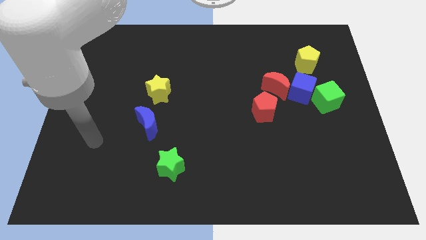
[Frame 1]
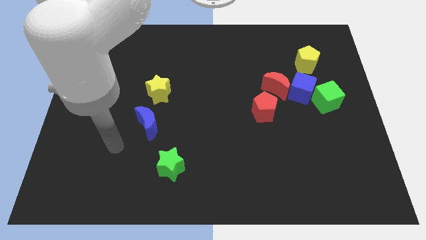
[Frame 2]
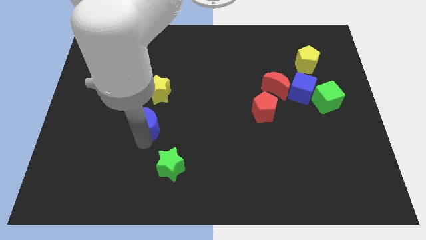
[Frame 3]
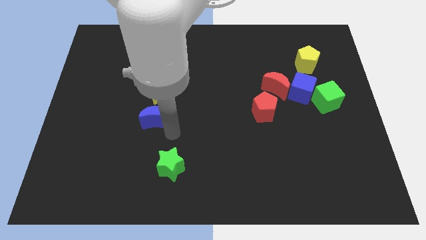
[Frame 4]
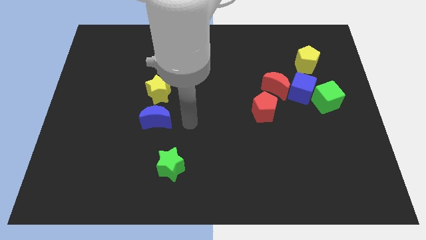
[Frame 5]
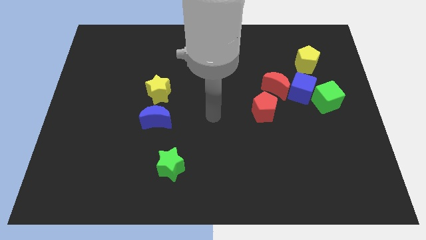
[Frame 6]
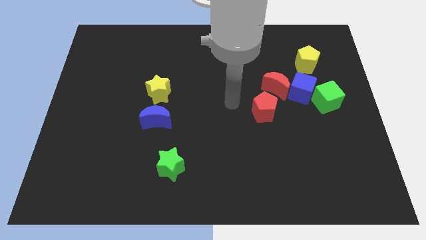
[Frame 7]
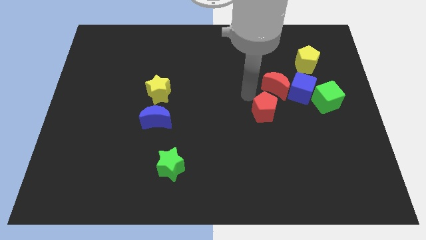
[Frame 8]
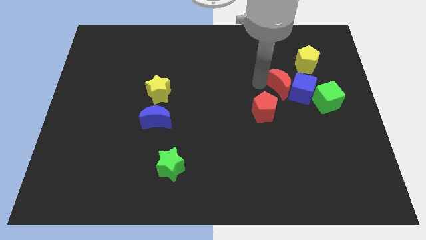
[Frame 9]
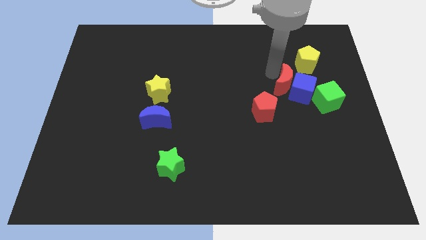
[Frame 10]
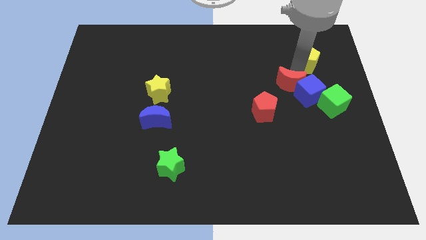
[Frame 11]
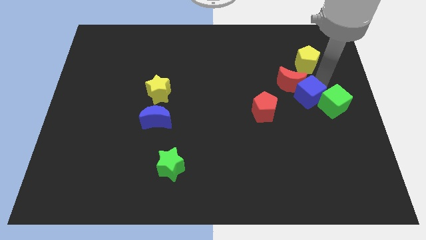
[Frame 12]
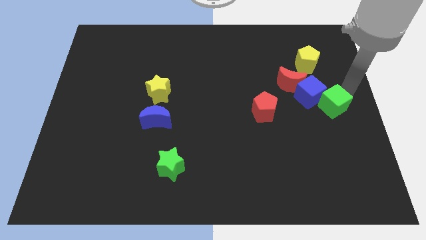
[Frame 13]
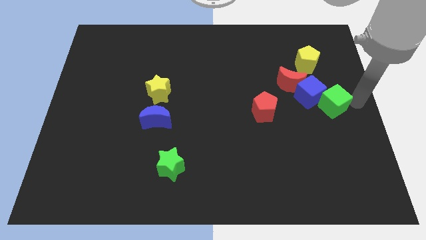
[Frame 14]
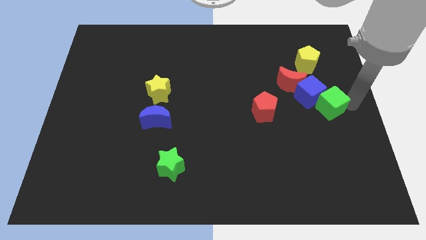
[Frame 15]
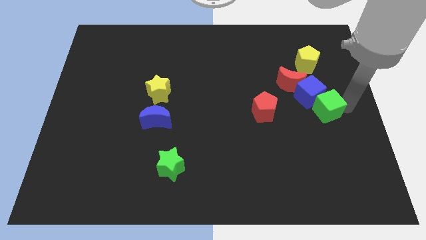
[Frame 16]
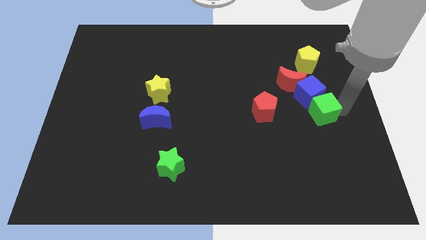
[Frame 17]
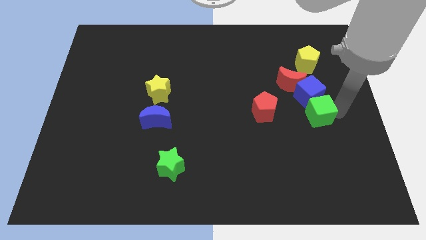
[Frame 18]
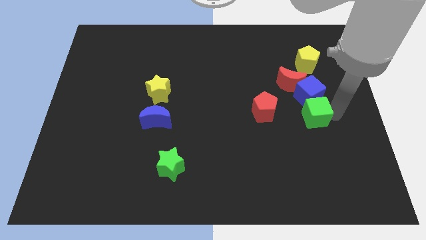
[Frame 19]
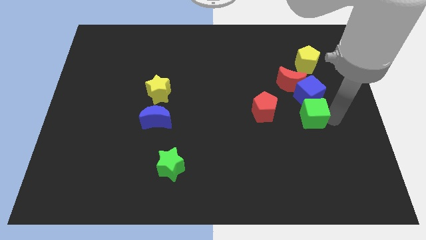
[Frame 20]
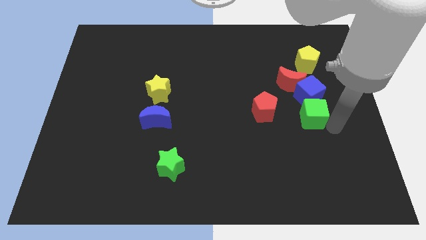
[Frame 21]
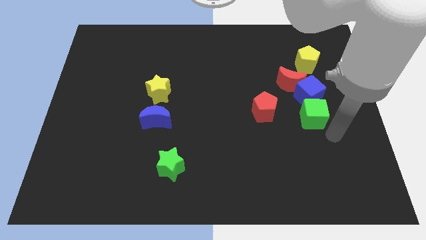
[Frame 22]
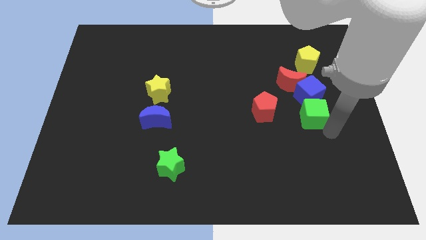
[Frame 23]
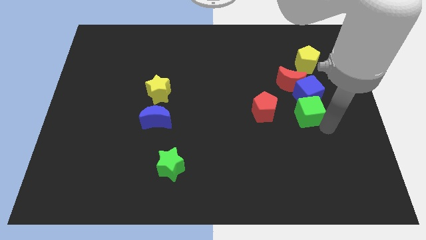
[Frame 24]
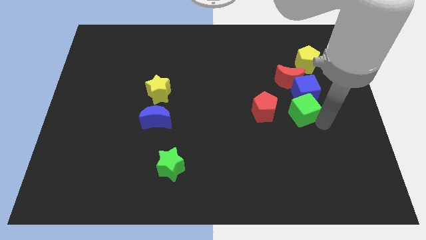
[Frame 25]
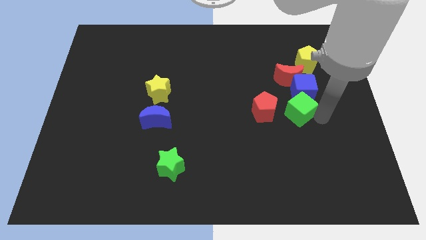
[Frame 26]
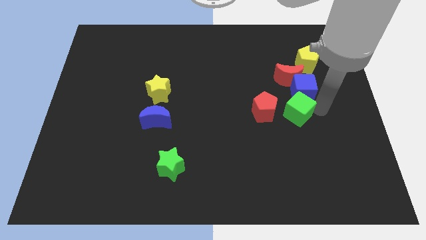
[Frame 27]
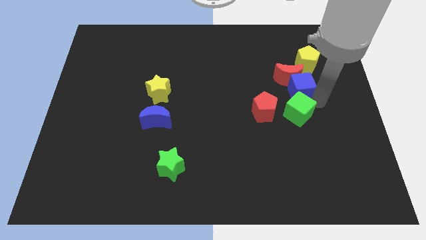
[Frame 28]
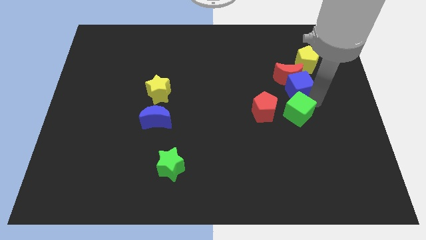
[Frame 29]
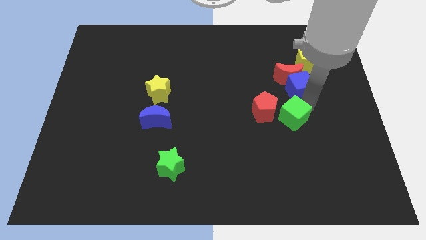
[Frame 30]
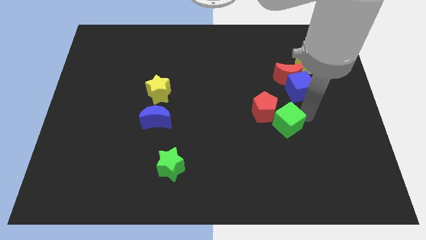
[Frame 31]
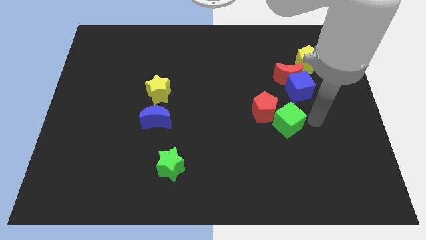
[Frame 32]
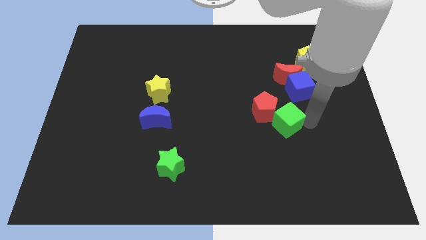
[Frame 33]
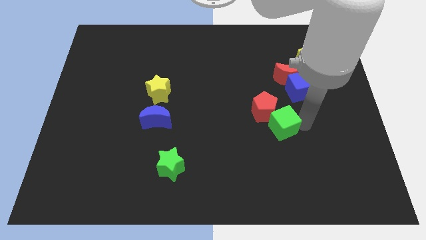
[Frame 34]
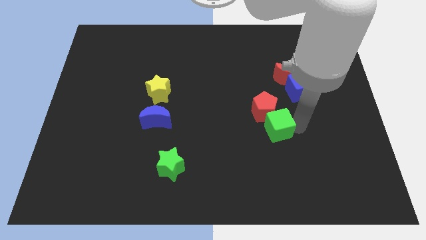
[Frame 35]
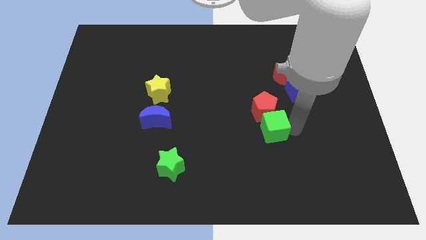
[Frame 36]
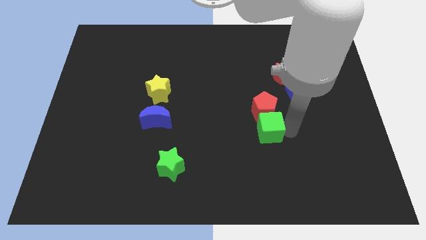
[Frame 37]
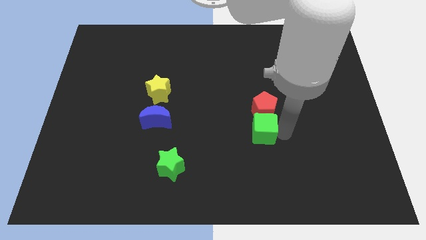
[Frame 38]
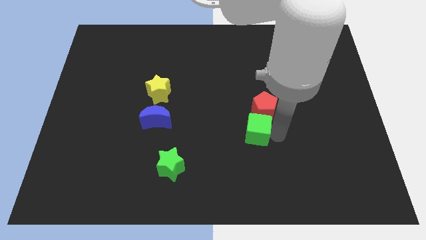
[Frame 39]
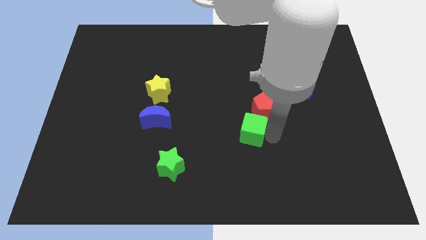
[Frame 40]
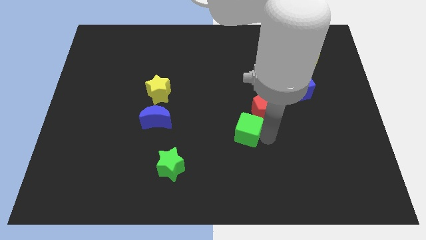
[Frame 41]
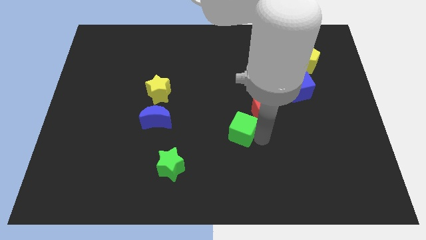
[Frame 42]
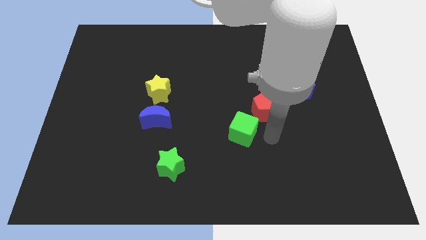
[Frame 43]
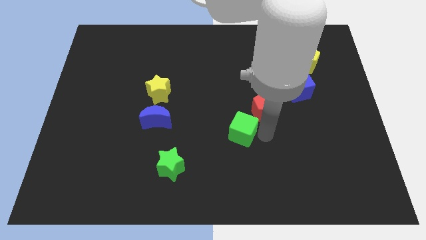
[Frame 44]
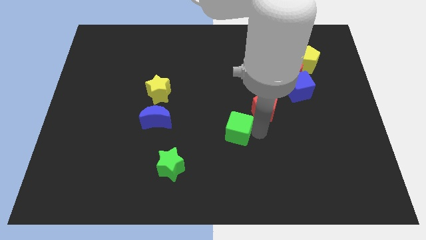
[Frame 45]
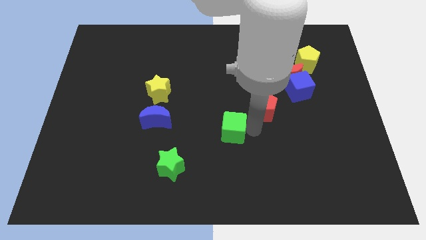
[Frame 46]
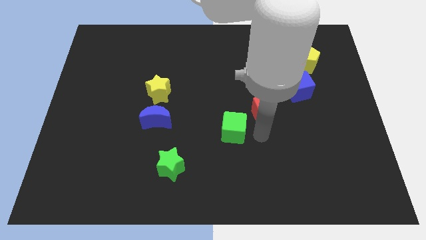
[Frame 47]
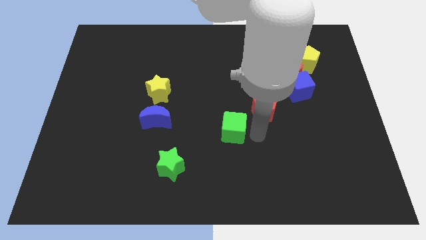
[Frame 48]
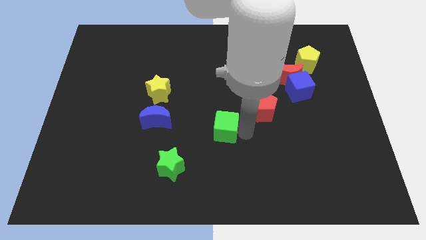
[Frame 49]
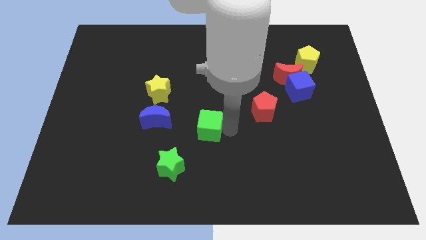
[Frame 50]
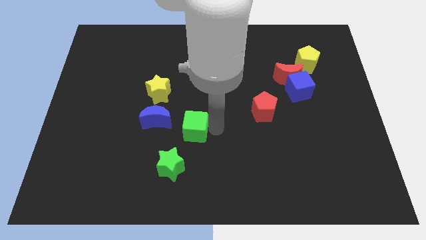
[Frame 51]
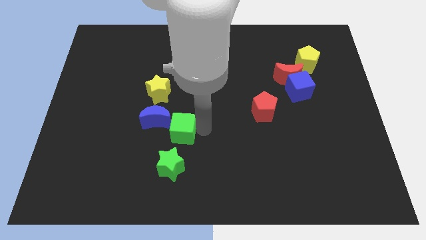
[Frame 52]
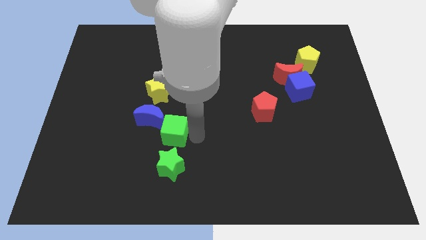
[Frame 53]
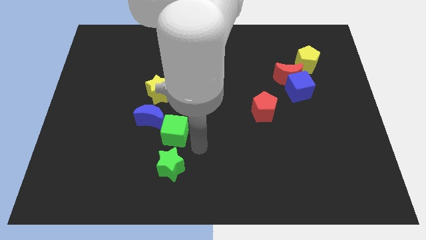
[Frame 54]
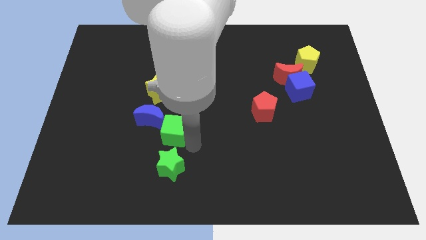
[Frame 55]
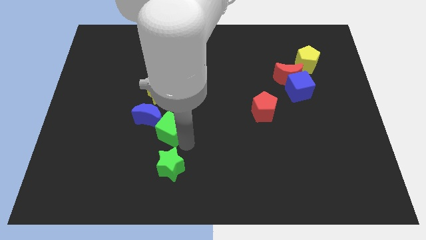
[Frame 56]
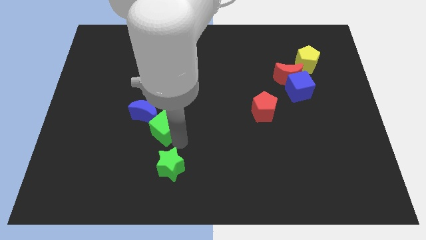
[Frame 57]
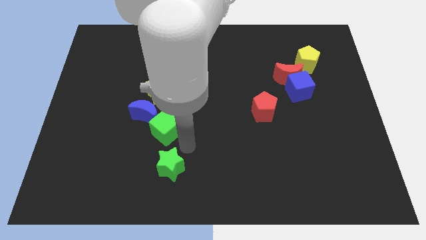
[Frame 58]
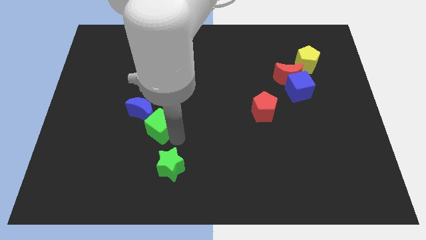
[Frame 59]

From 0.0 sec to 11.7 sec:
push the green cube next to the blue moon
